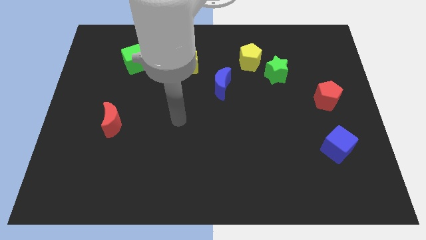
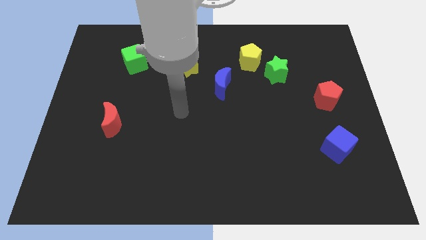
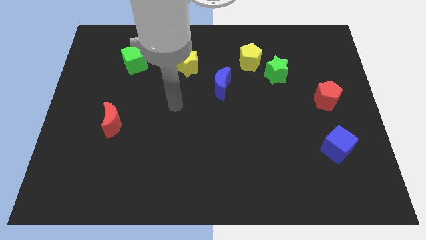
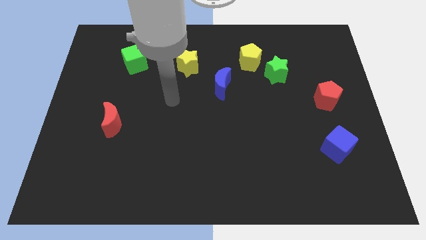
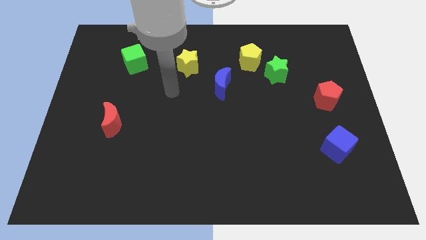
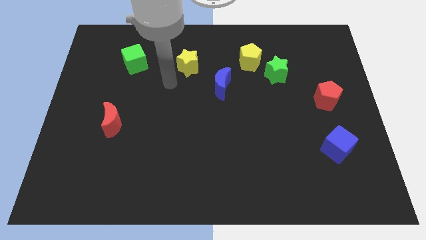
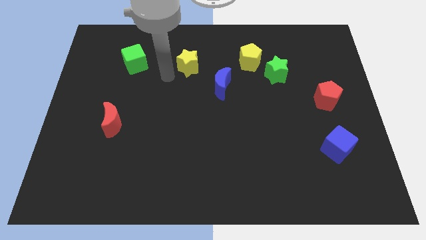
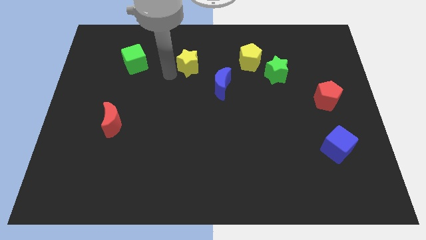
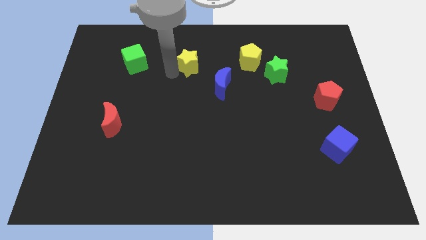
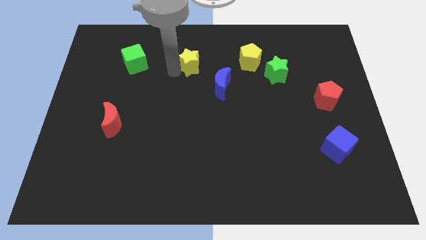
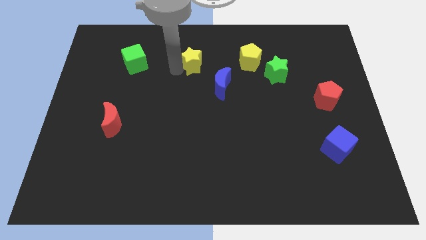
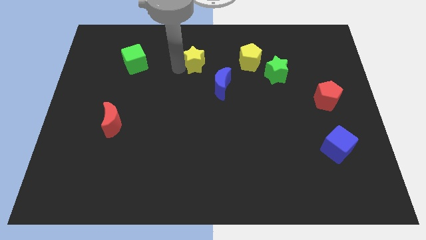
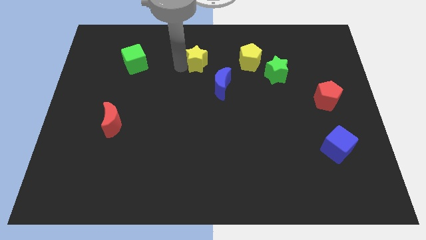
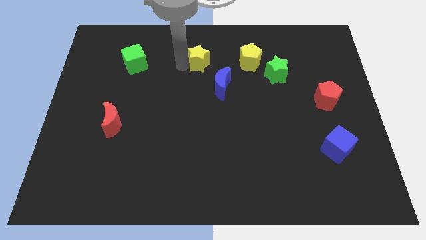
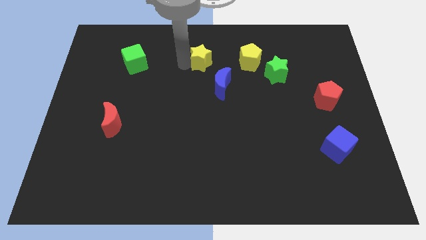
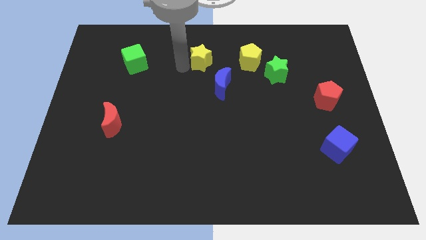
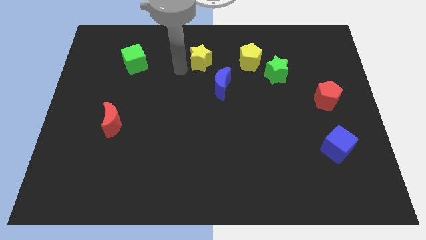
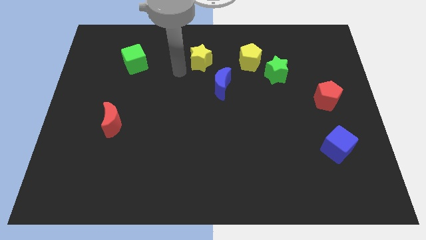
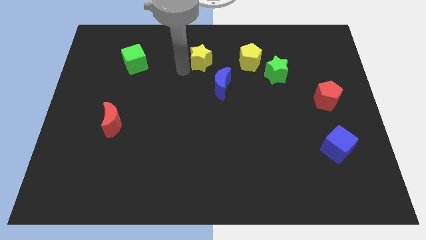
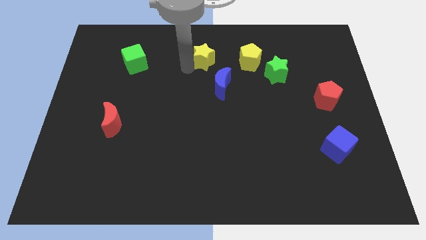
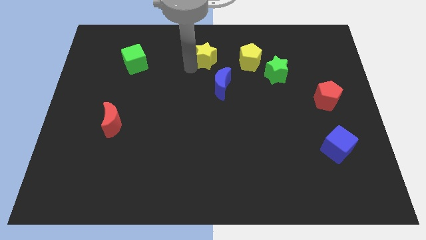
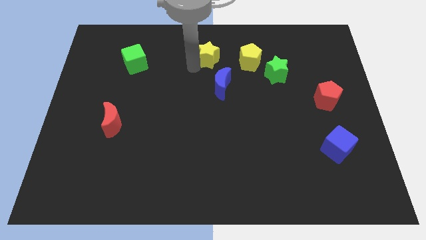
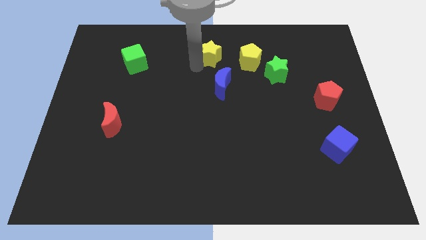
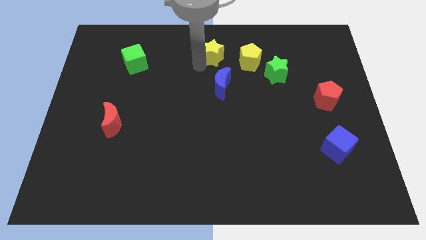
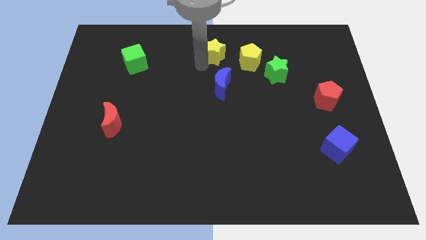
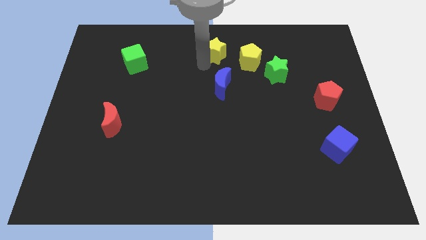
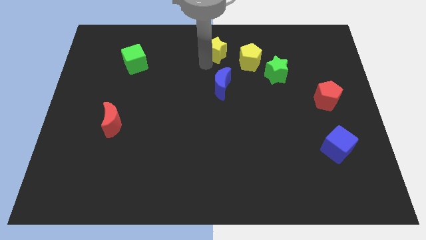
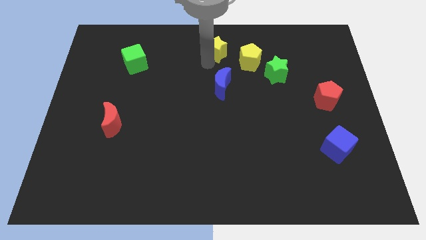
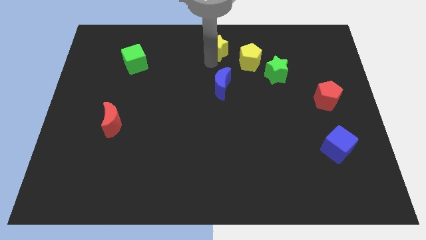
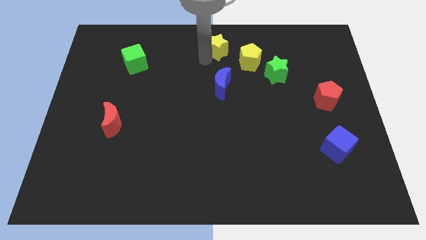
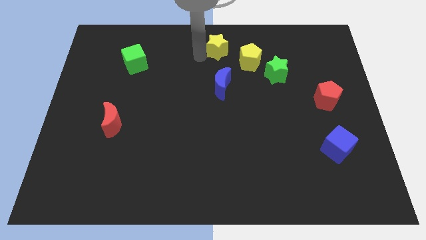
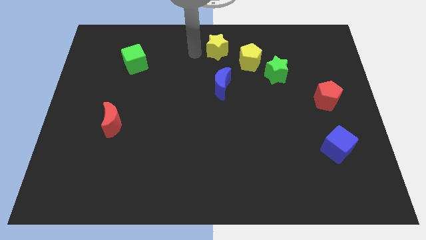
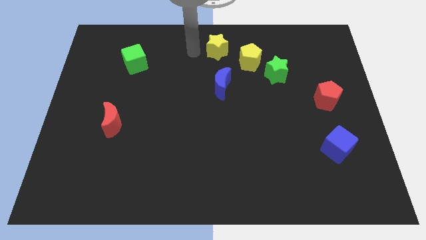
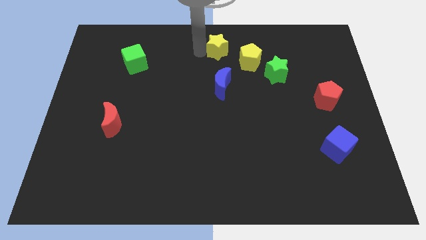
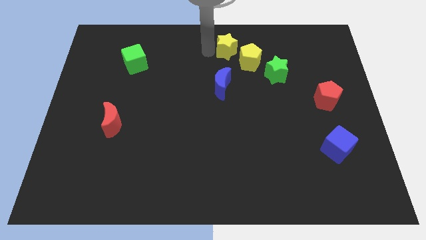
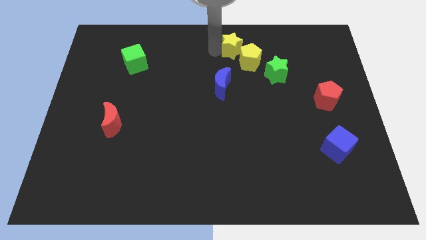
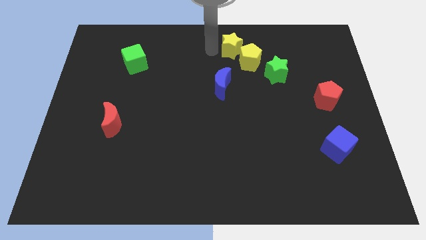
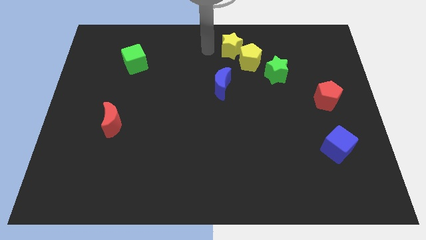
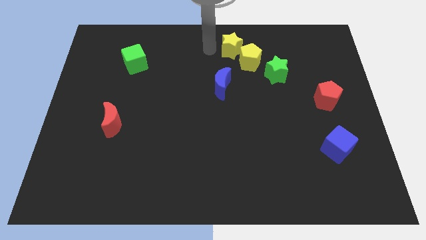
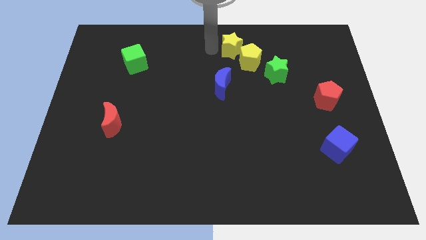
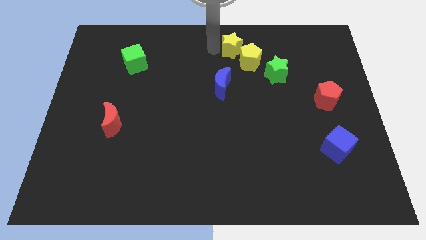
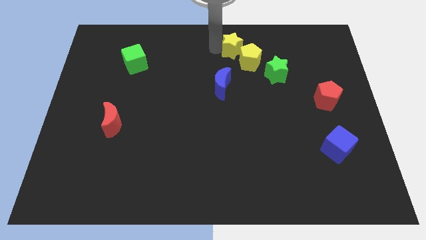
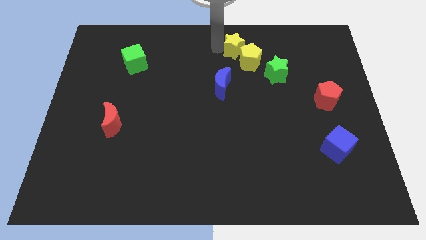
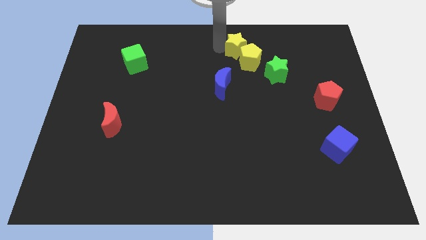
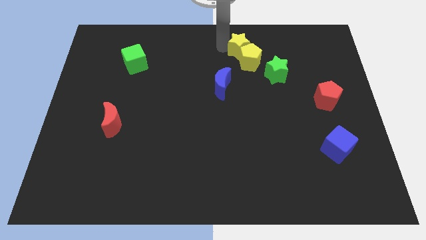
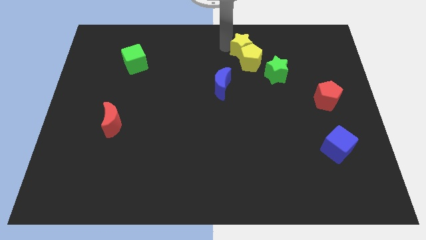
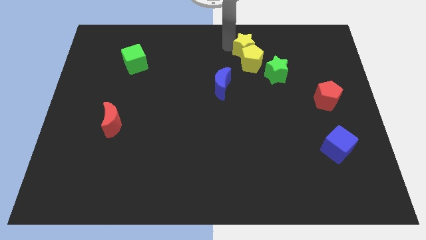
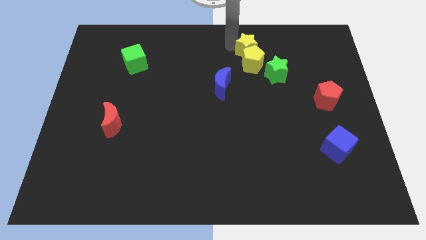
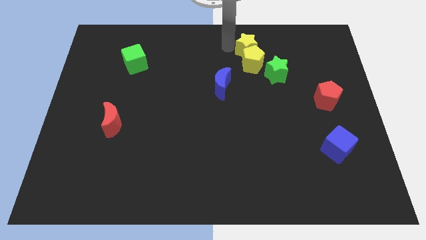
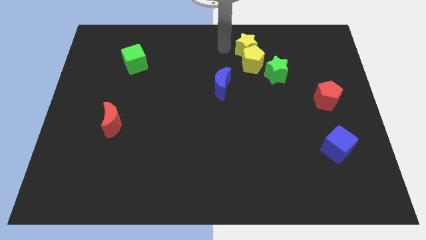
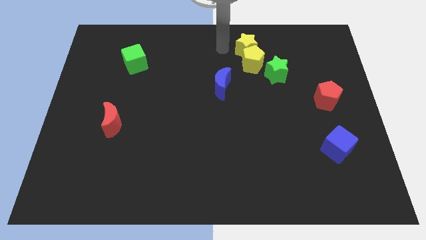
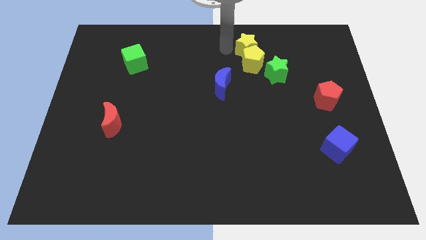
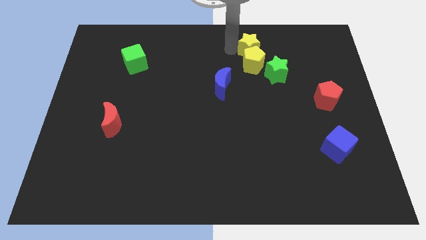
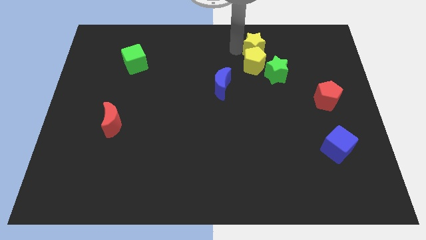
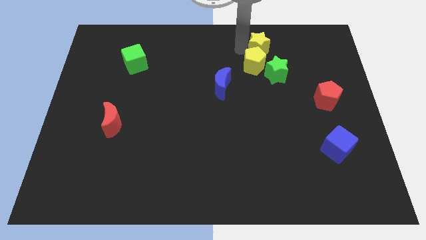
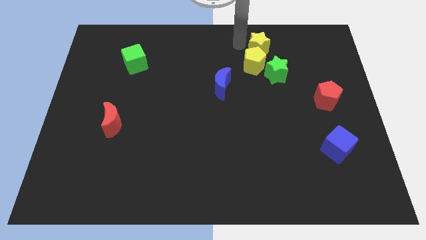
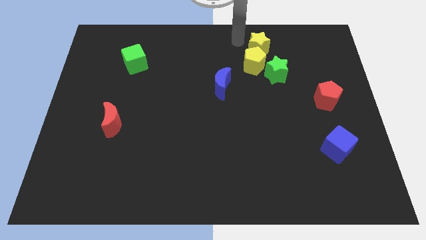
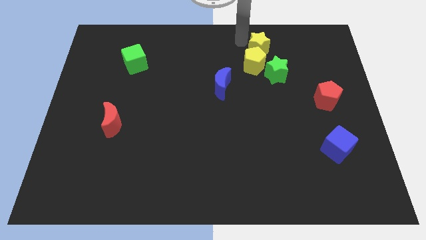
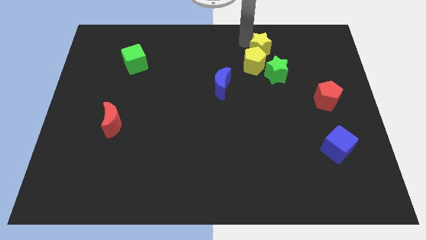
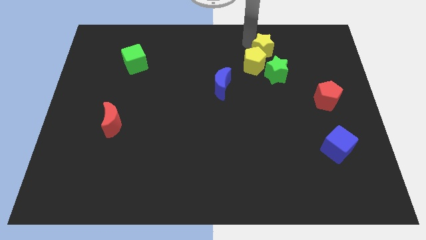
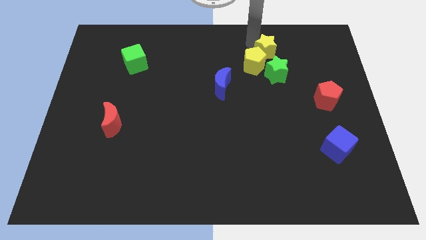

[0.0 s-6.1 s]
slide the yellow star to the right of the yellow pentagon
